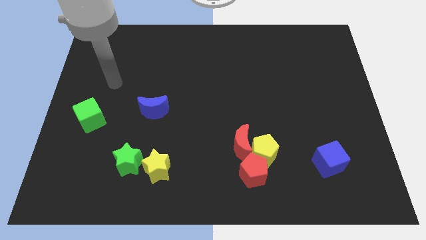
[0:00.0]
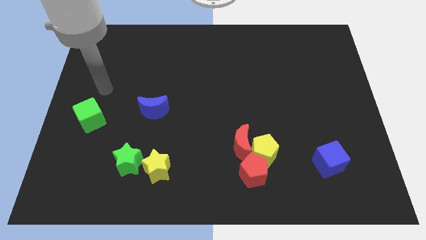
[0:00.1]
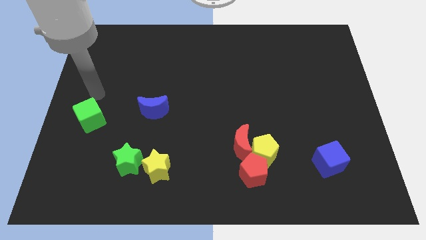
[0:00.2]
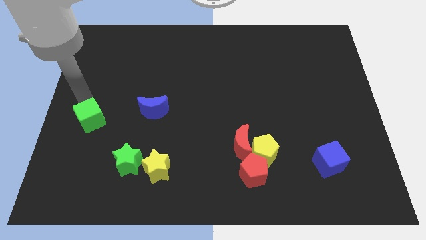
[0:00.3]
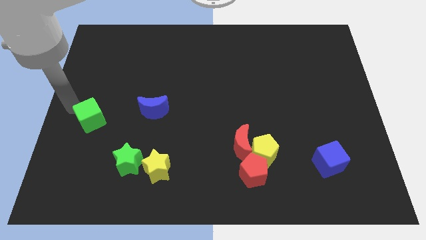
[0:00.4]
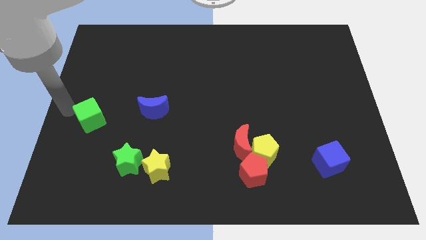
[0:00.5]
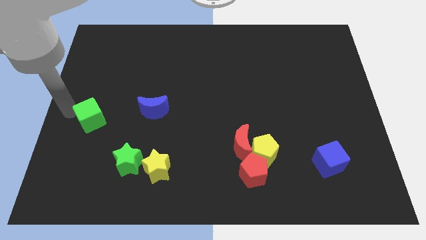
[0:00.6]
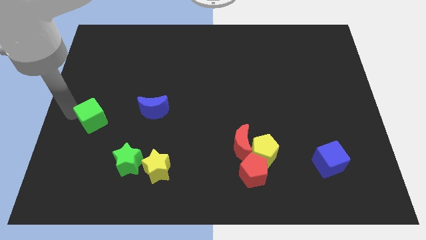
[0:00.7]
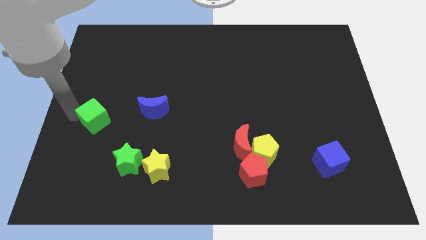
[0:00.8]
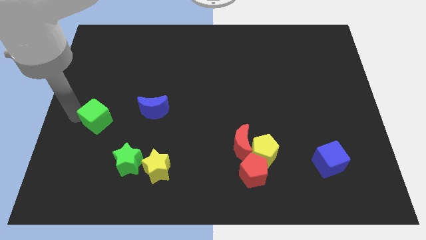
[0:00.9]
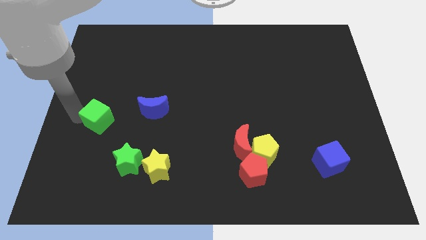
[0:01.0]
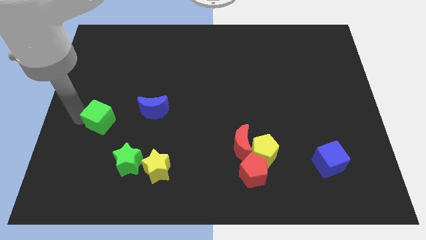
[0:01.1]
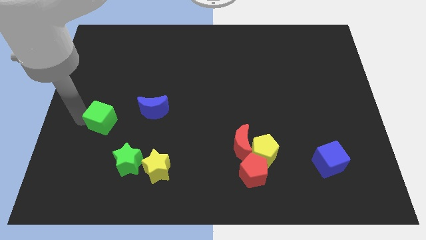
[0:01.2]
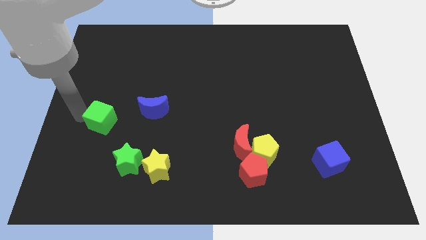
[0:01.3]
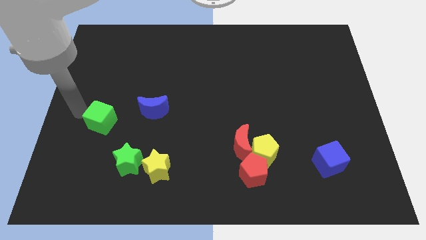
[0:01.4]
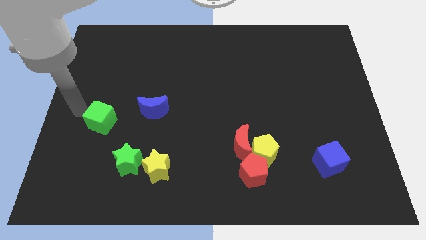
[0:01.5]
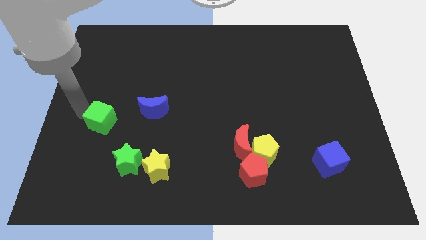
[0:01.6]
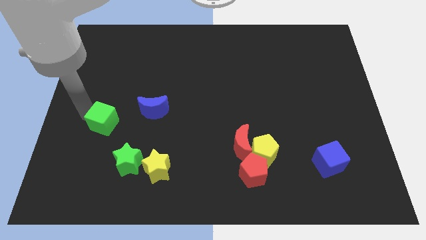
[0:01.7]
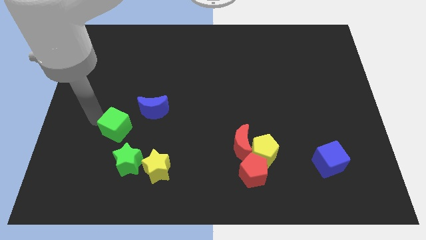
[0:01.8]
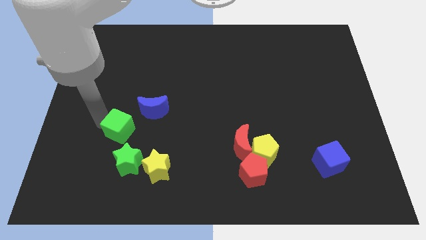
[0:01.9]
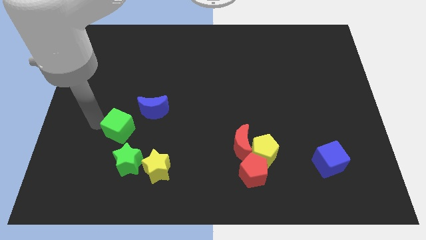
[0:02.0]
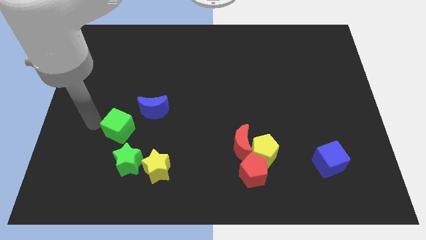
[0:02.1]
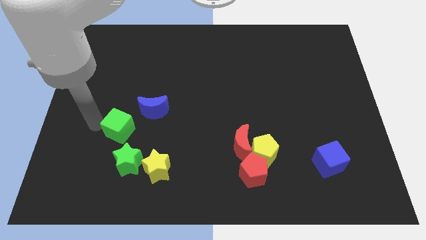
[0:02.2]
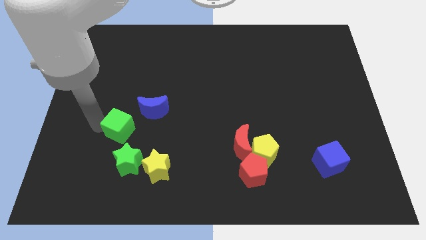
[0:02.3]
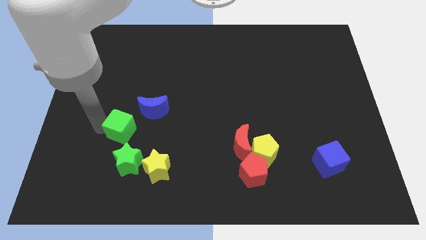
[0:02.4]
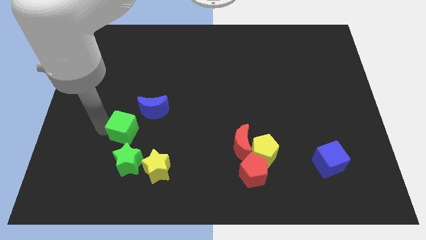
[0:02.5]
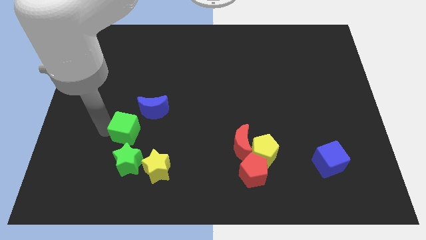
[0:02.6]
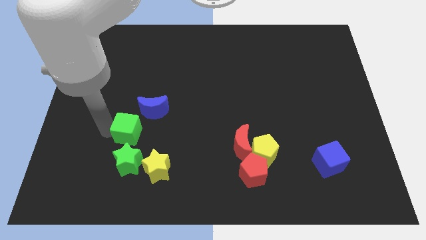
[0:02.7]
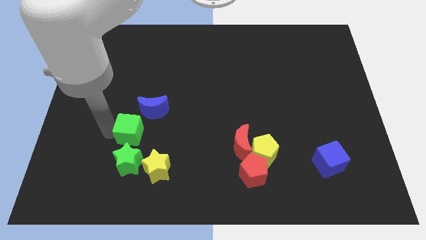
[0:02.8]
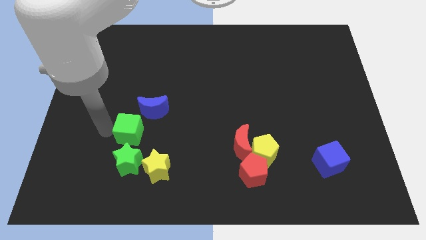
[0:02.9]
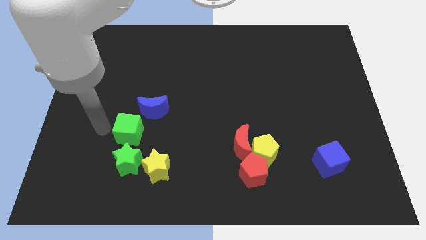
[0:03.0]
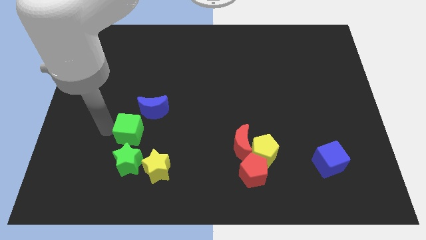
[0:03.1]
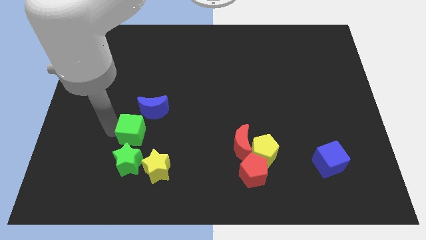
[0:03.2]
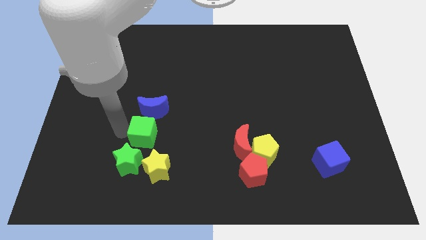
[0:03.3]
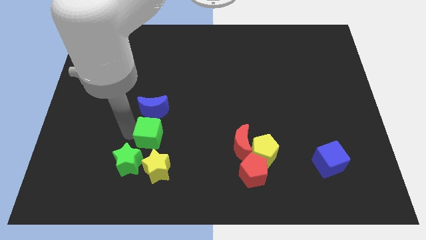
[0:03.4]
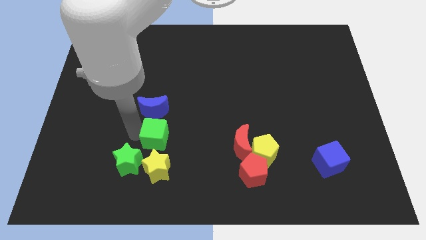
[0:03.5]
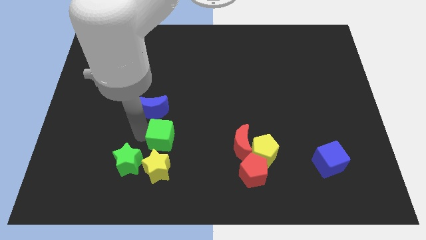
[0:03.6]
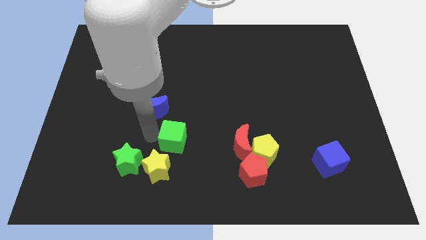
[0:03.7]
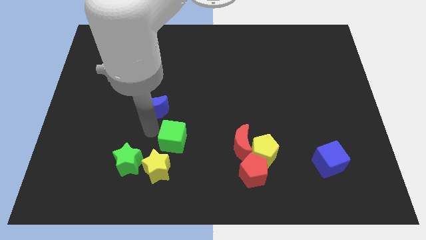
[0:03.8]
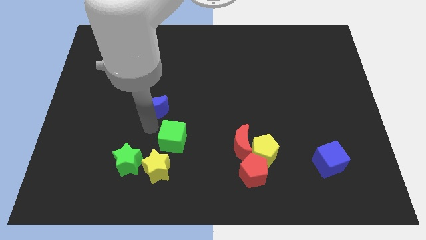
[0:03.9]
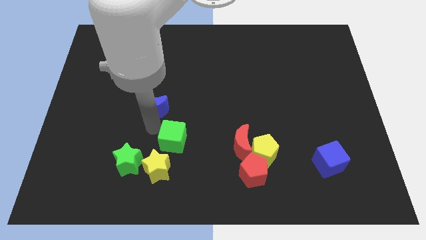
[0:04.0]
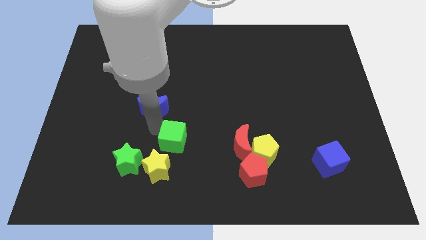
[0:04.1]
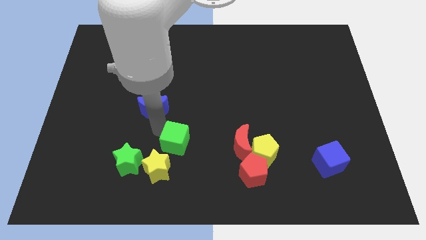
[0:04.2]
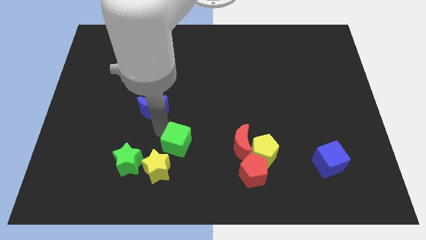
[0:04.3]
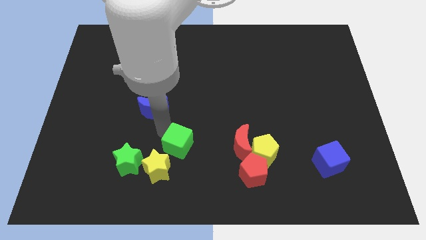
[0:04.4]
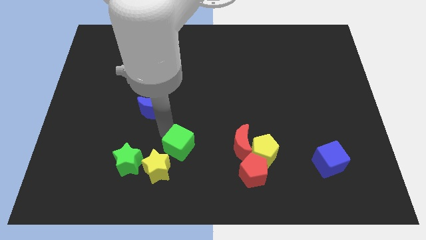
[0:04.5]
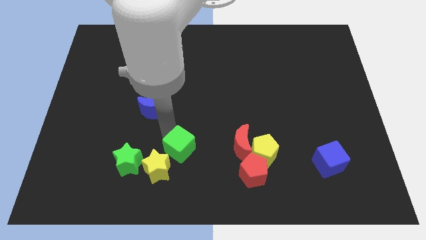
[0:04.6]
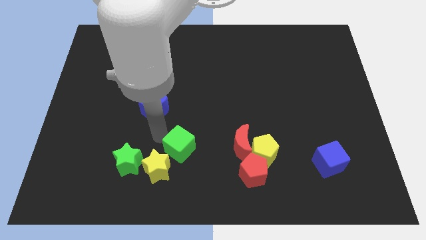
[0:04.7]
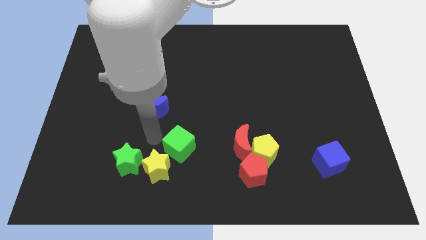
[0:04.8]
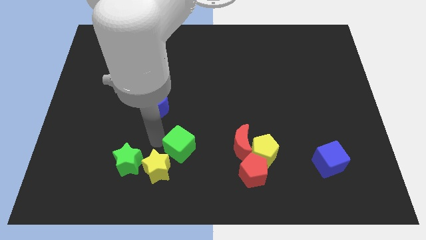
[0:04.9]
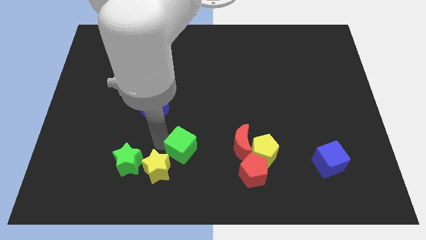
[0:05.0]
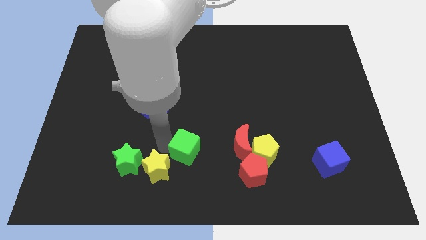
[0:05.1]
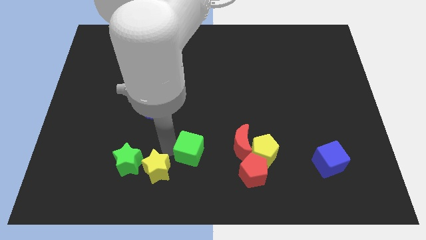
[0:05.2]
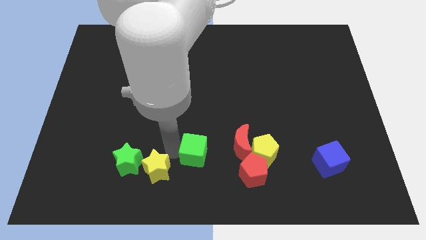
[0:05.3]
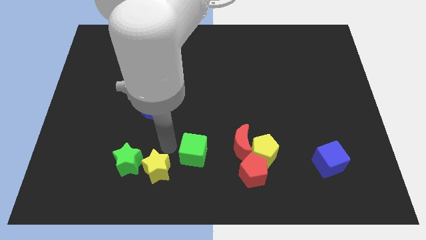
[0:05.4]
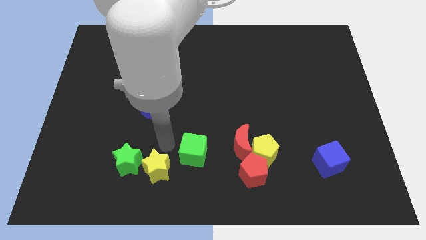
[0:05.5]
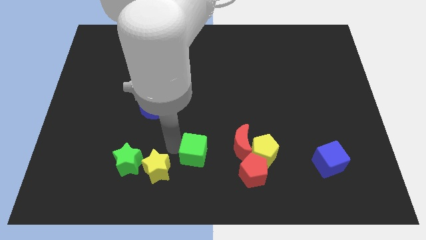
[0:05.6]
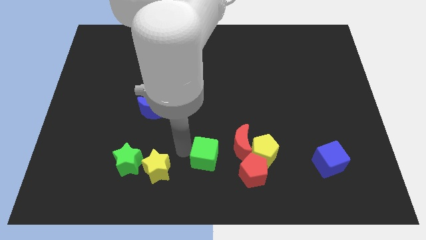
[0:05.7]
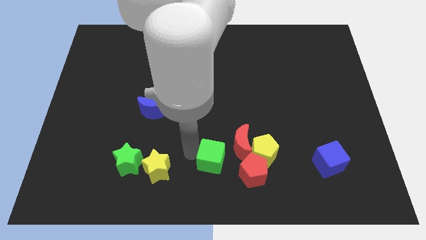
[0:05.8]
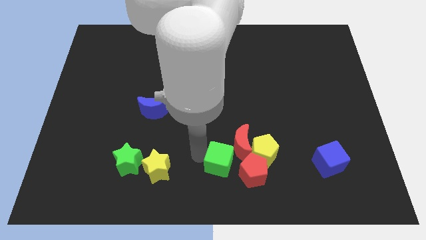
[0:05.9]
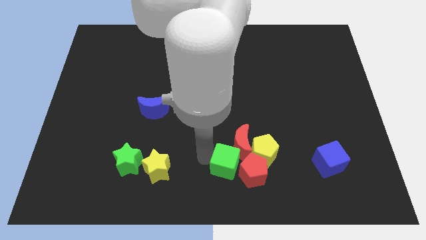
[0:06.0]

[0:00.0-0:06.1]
slide the green cube next to the red pentagon

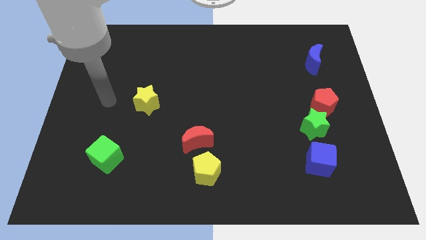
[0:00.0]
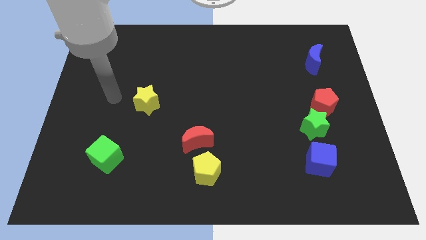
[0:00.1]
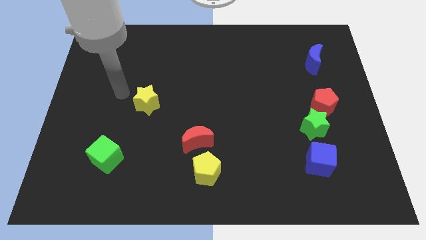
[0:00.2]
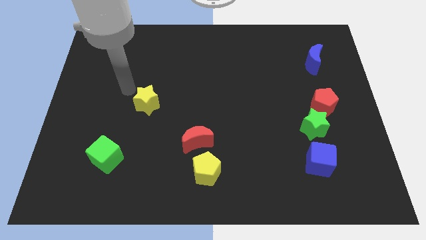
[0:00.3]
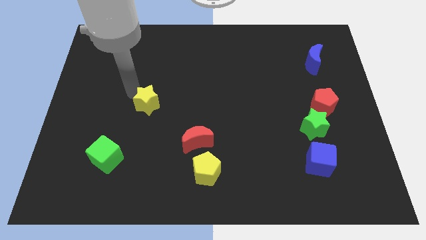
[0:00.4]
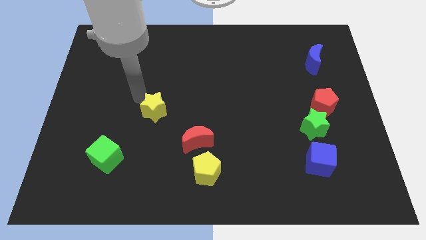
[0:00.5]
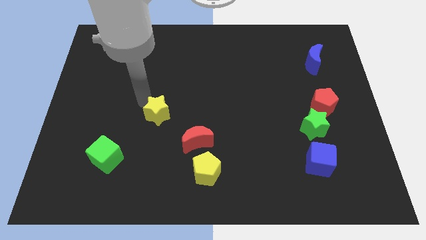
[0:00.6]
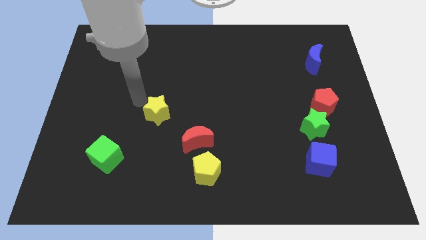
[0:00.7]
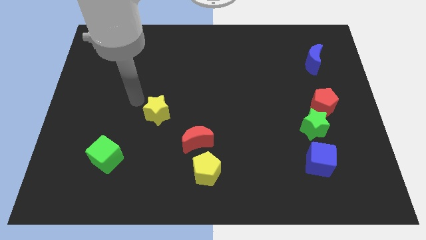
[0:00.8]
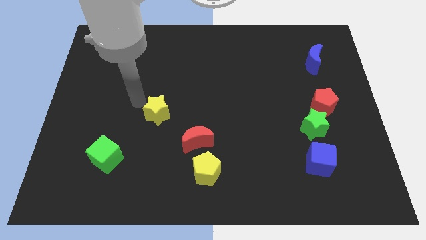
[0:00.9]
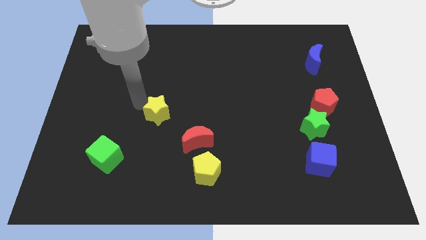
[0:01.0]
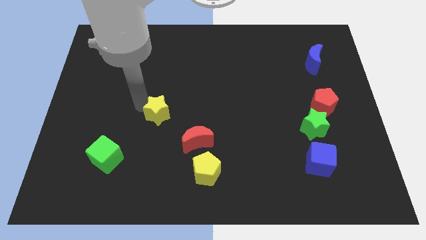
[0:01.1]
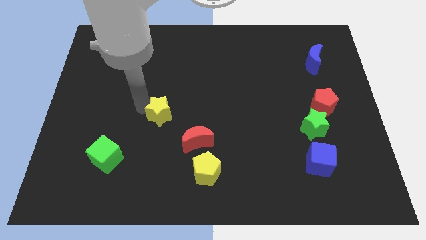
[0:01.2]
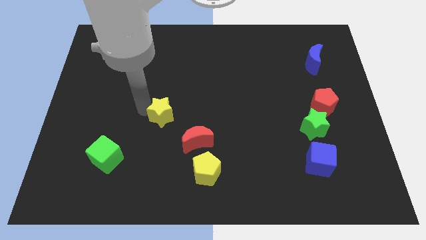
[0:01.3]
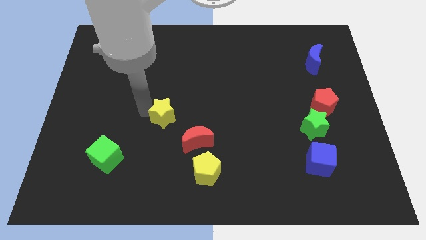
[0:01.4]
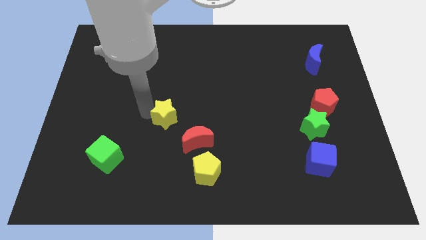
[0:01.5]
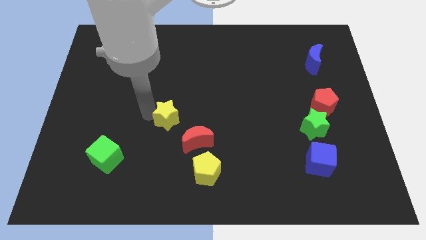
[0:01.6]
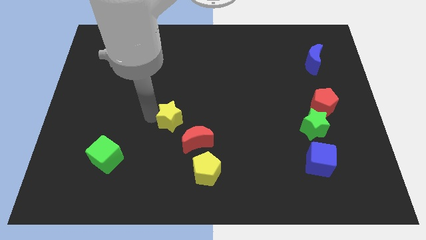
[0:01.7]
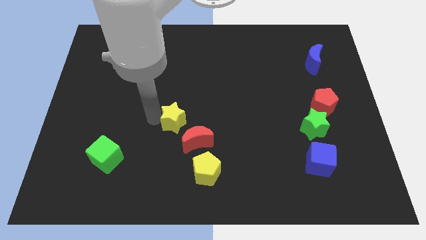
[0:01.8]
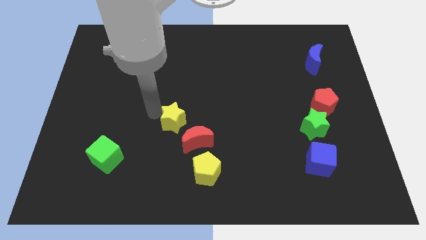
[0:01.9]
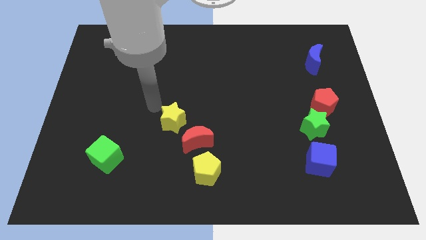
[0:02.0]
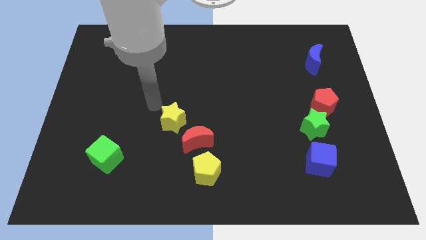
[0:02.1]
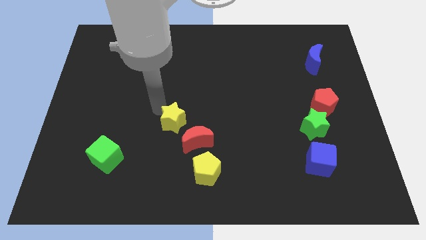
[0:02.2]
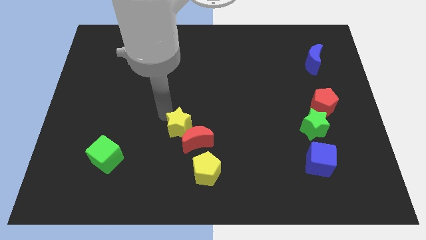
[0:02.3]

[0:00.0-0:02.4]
put the yellow star next to the red moon
